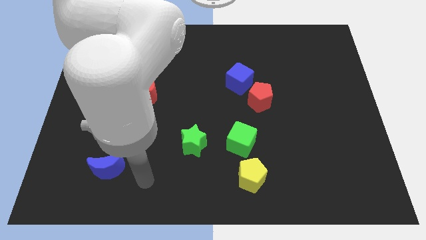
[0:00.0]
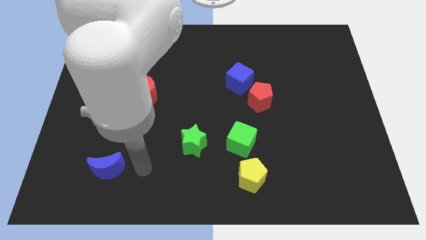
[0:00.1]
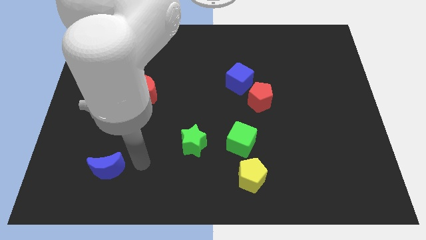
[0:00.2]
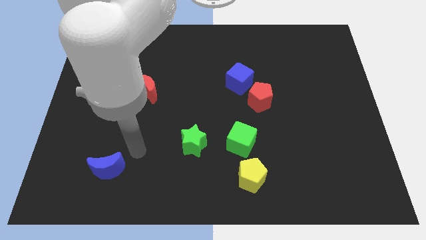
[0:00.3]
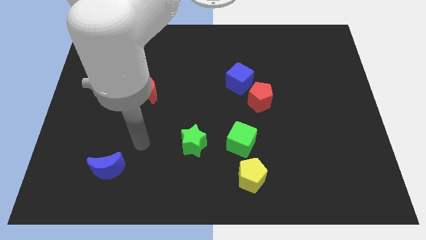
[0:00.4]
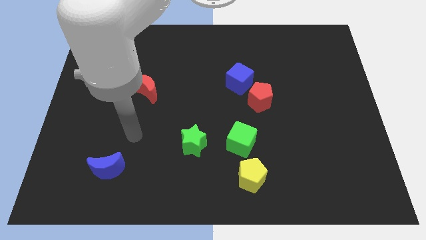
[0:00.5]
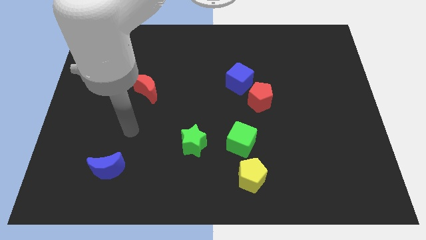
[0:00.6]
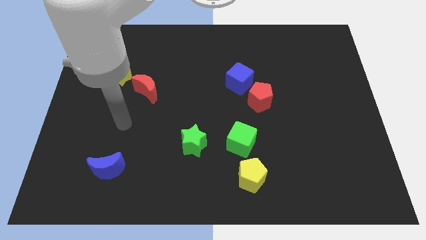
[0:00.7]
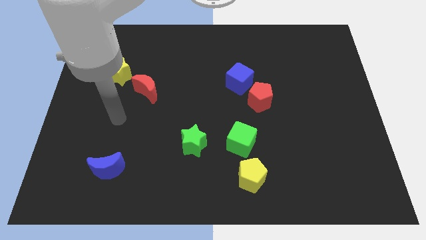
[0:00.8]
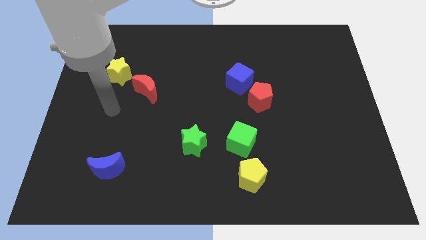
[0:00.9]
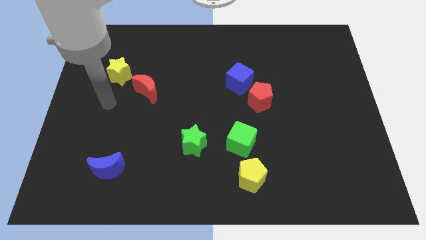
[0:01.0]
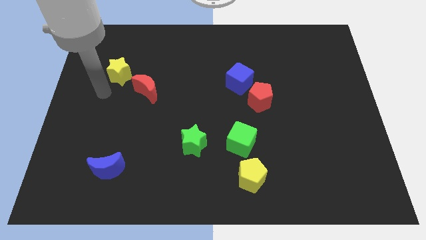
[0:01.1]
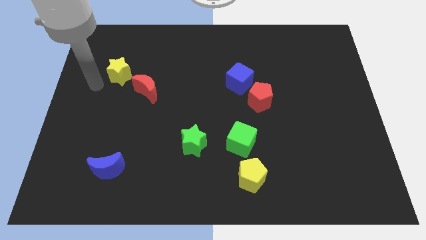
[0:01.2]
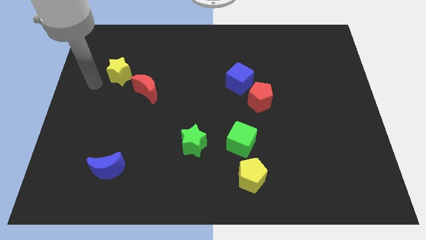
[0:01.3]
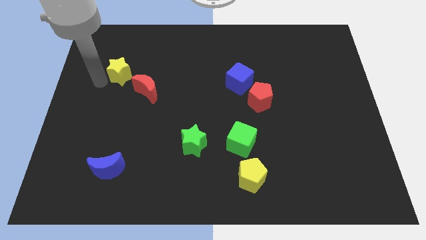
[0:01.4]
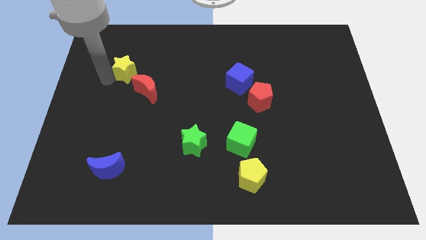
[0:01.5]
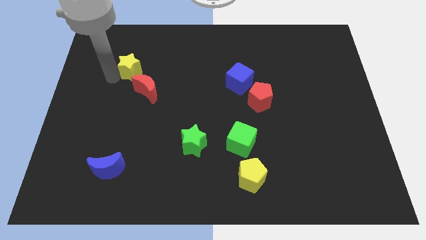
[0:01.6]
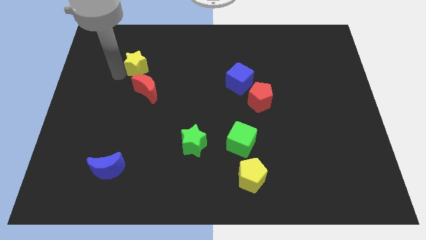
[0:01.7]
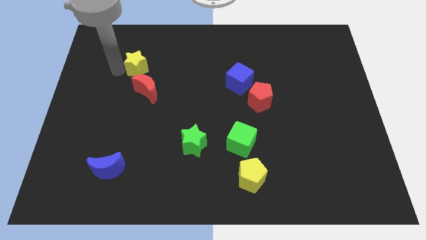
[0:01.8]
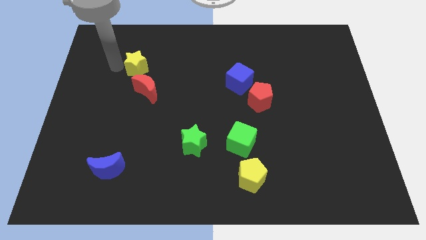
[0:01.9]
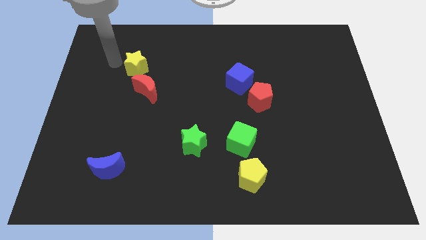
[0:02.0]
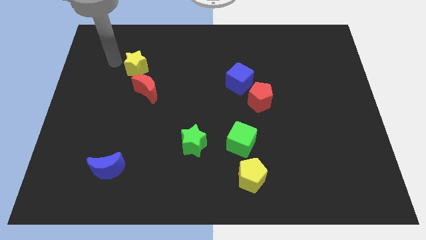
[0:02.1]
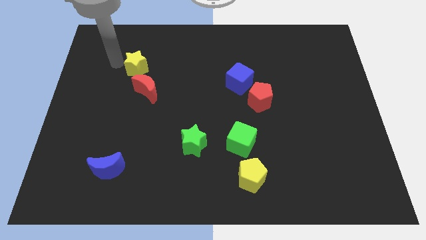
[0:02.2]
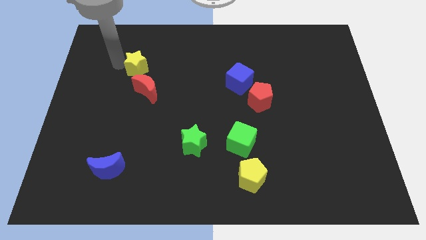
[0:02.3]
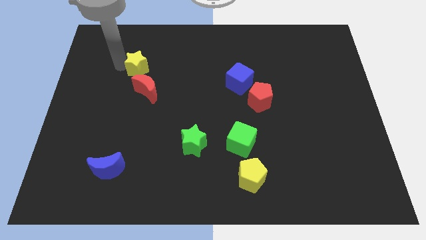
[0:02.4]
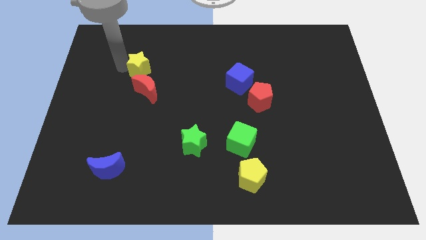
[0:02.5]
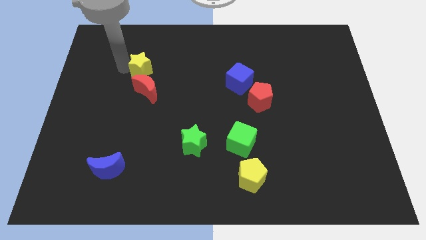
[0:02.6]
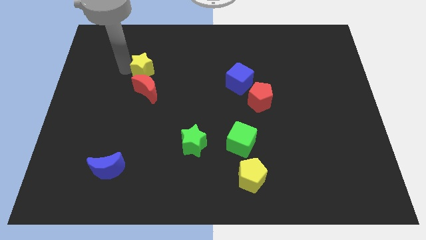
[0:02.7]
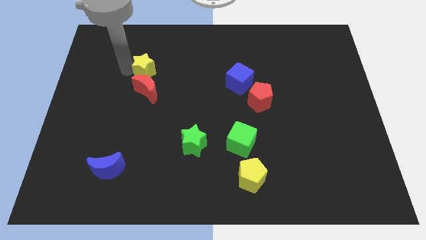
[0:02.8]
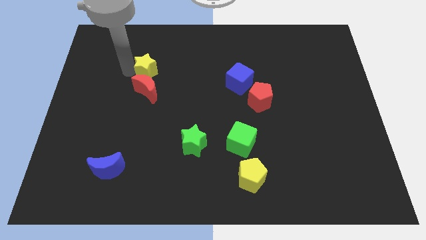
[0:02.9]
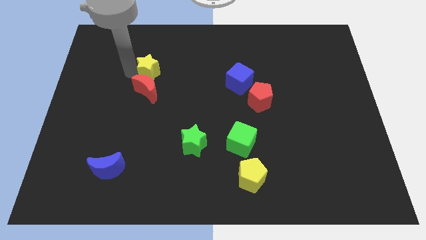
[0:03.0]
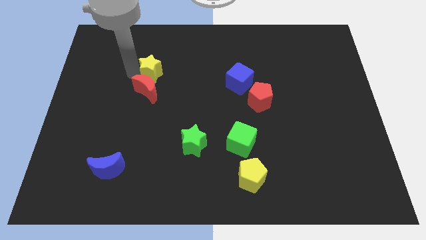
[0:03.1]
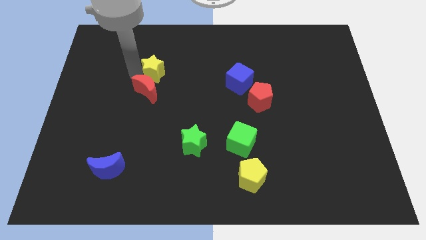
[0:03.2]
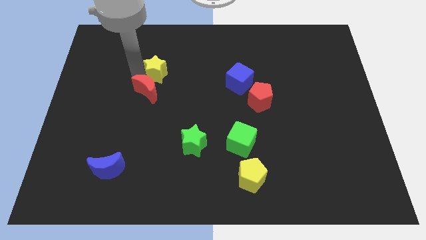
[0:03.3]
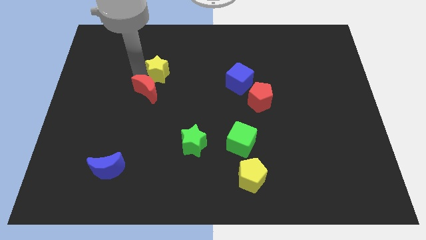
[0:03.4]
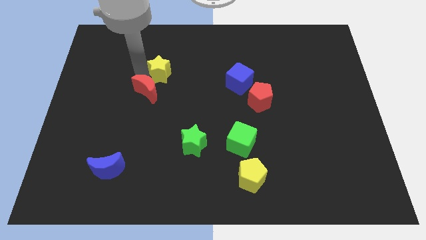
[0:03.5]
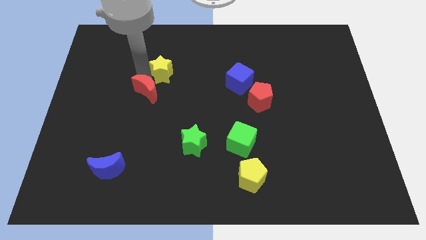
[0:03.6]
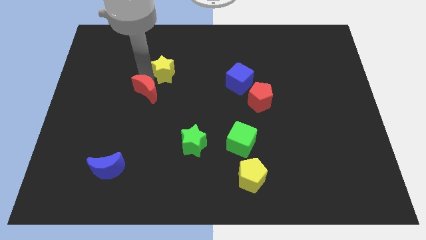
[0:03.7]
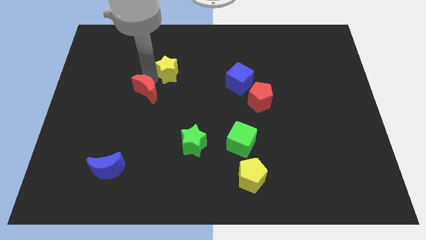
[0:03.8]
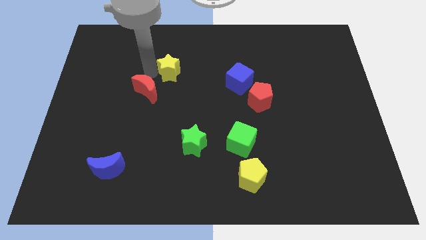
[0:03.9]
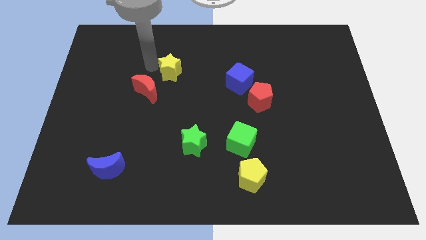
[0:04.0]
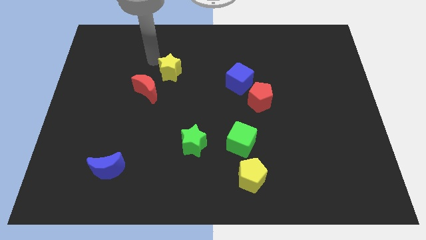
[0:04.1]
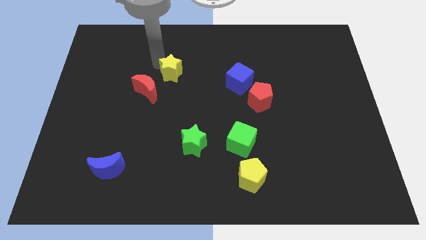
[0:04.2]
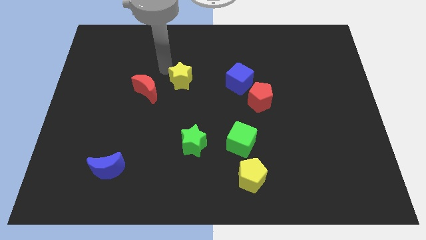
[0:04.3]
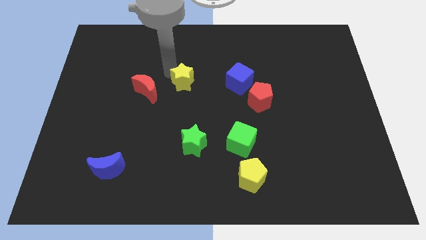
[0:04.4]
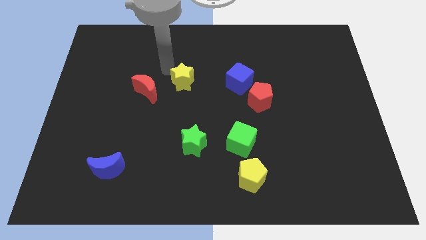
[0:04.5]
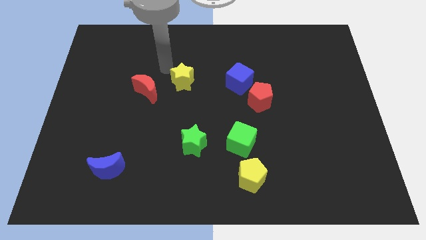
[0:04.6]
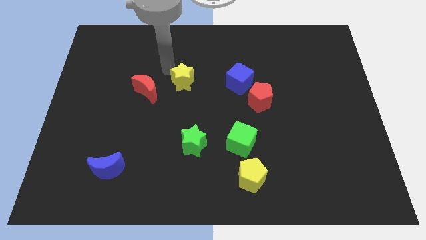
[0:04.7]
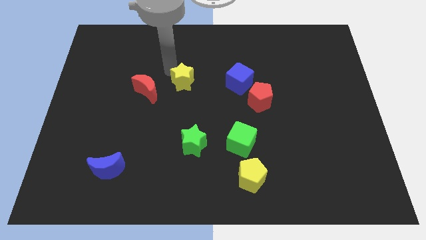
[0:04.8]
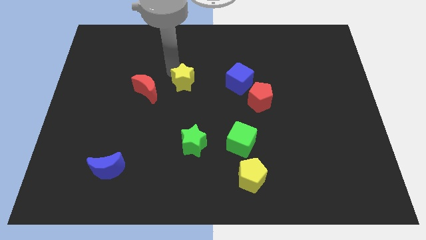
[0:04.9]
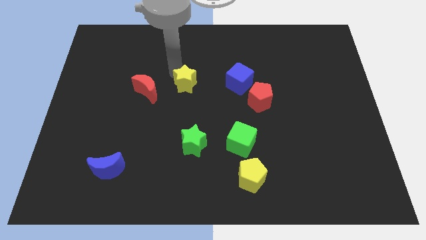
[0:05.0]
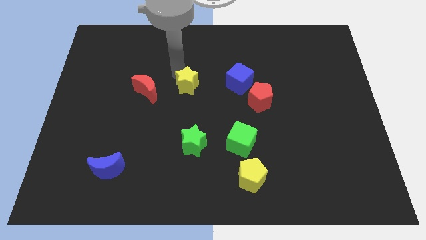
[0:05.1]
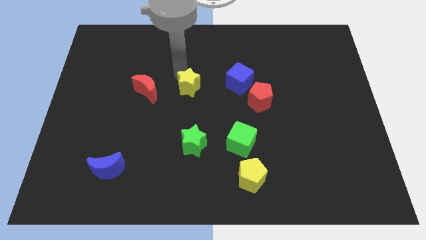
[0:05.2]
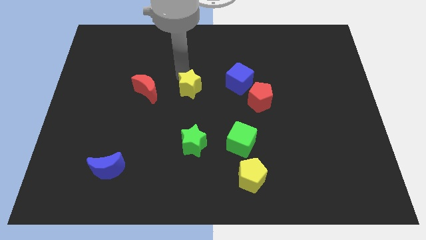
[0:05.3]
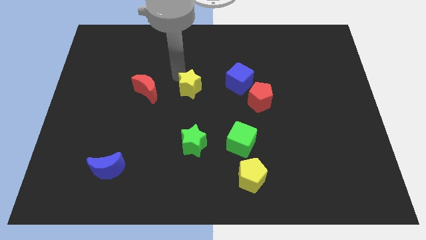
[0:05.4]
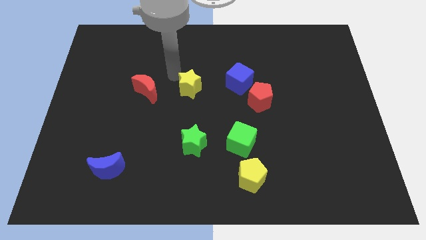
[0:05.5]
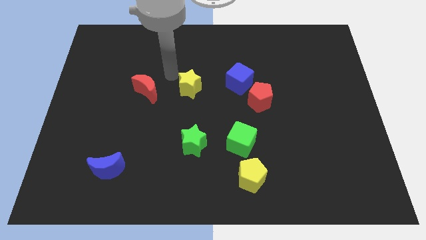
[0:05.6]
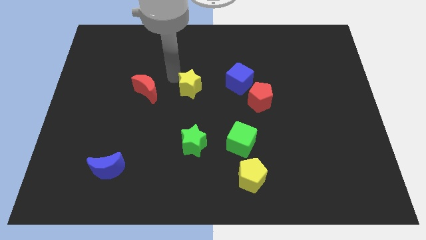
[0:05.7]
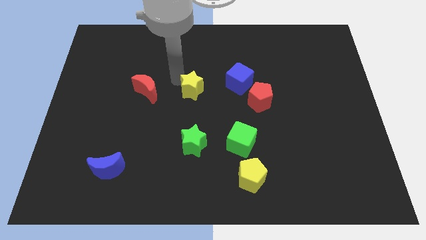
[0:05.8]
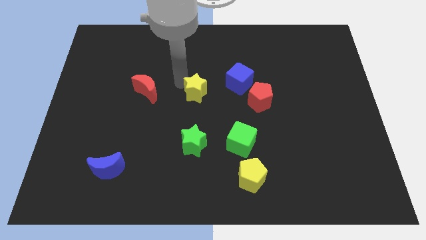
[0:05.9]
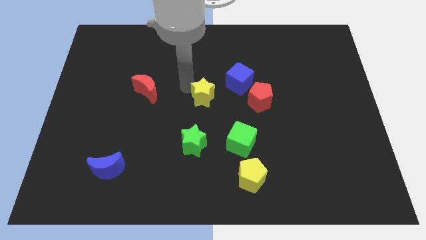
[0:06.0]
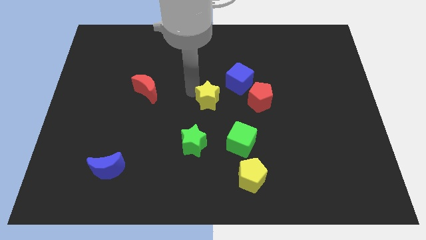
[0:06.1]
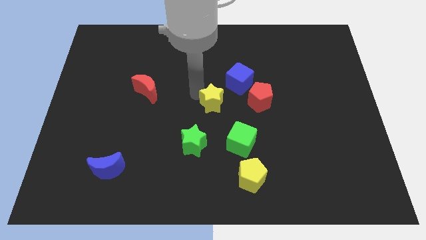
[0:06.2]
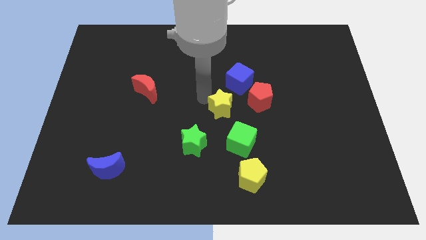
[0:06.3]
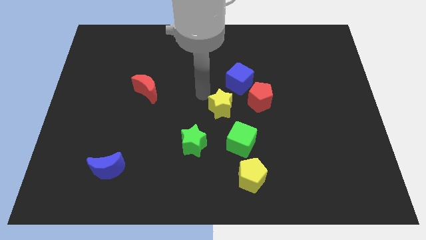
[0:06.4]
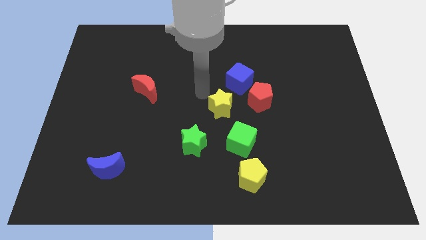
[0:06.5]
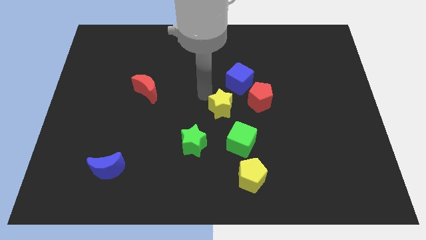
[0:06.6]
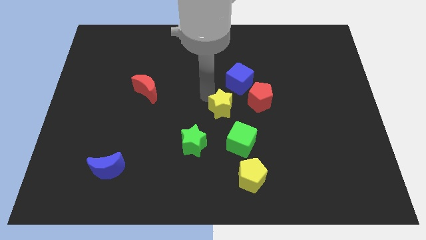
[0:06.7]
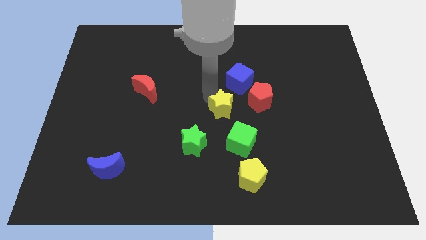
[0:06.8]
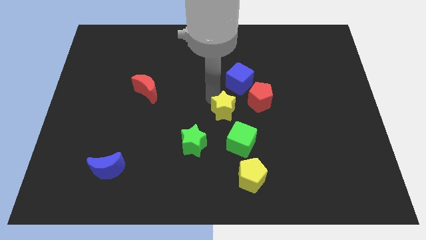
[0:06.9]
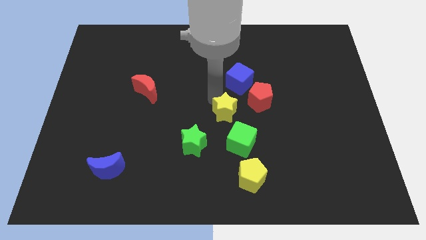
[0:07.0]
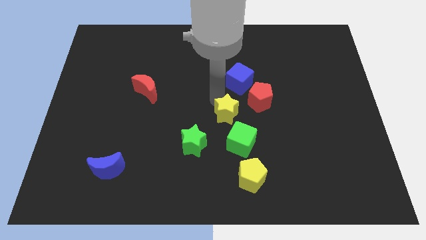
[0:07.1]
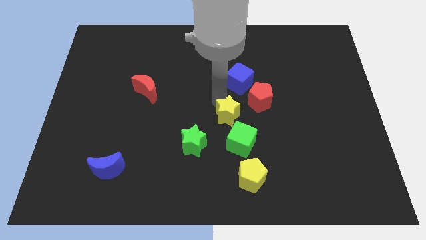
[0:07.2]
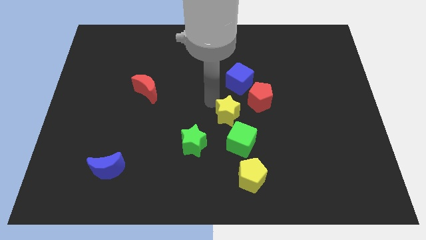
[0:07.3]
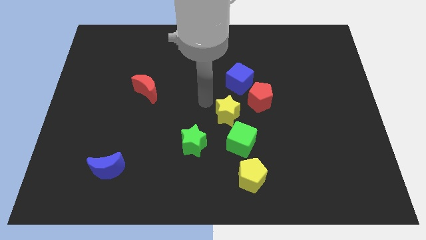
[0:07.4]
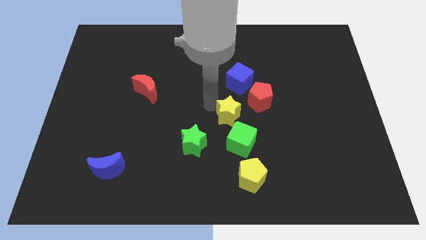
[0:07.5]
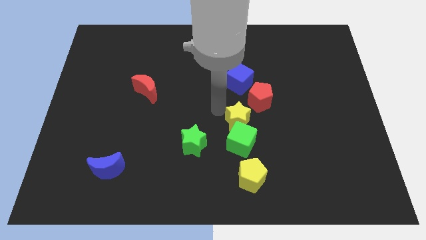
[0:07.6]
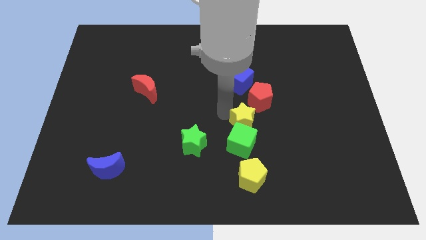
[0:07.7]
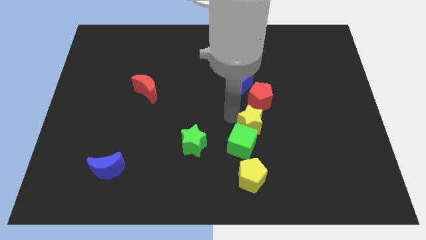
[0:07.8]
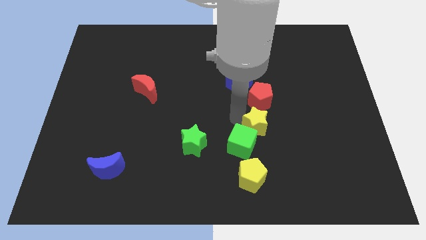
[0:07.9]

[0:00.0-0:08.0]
move the yellow star right of the green star
